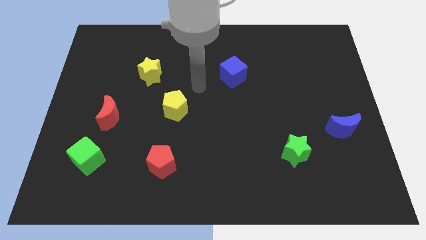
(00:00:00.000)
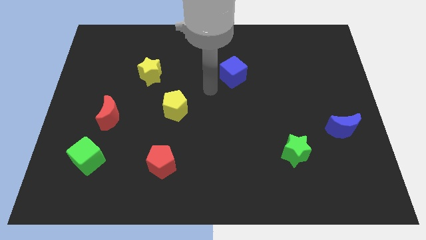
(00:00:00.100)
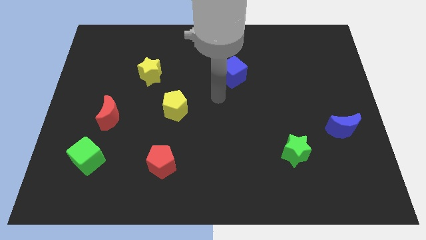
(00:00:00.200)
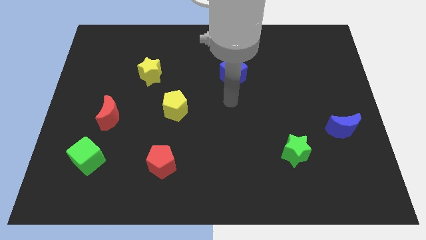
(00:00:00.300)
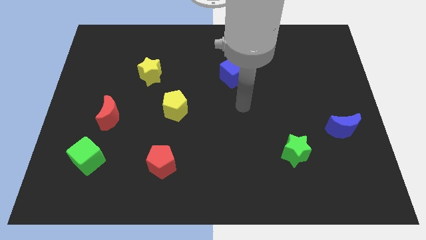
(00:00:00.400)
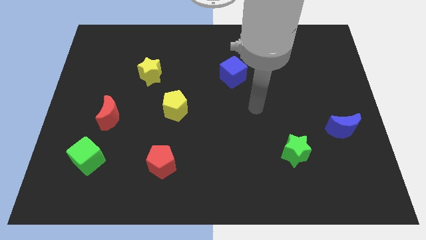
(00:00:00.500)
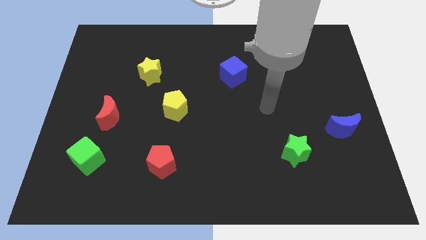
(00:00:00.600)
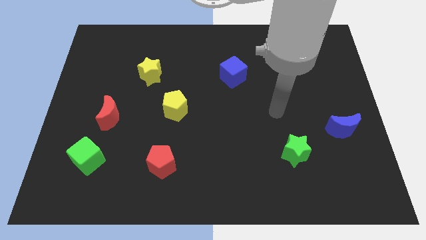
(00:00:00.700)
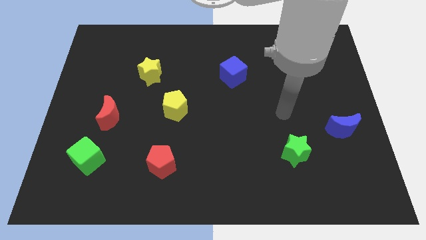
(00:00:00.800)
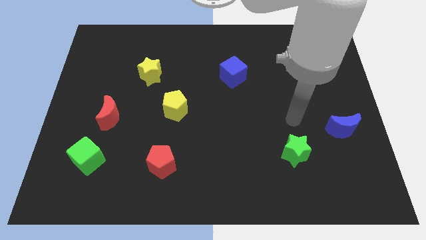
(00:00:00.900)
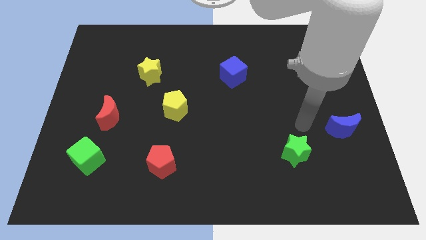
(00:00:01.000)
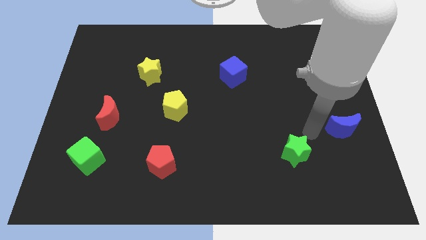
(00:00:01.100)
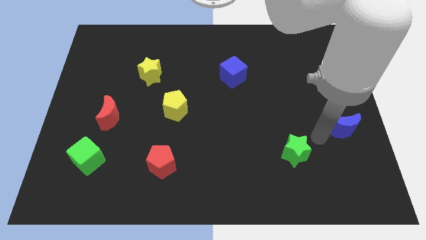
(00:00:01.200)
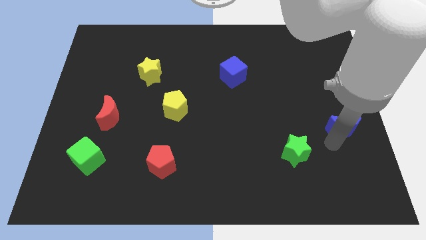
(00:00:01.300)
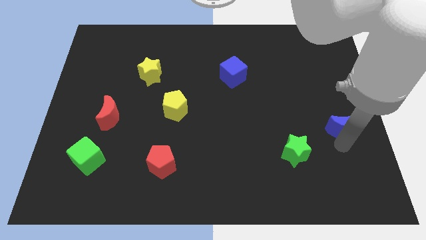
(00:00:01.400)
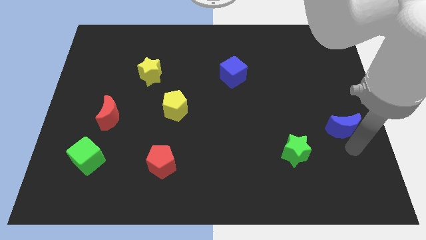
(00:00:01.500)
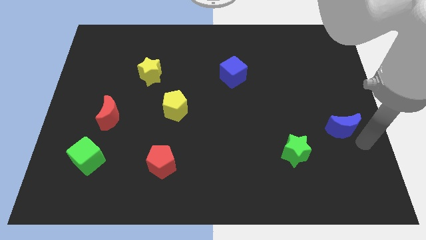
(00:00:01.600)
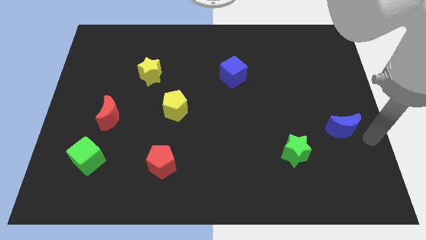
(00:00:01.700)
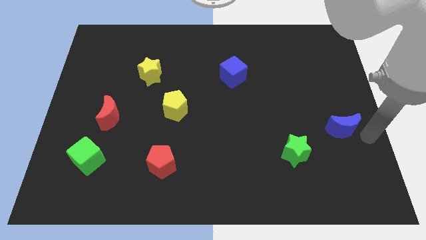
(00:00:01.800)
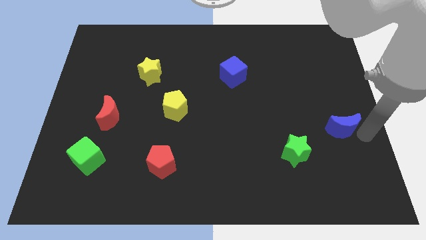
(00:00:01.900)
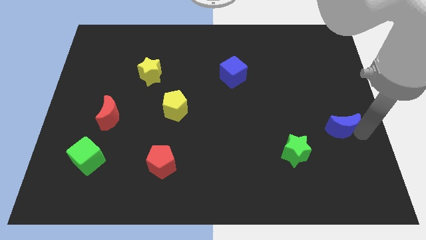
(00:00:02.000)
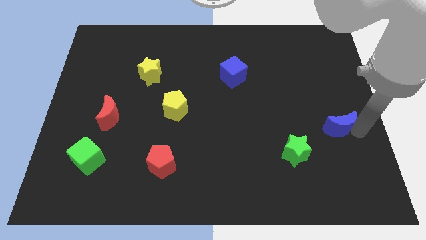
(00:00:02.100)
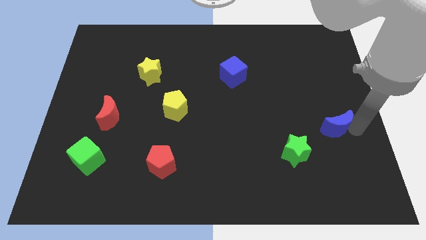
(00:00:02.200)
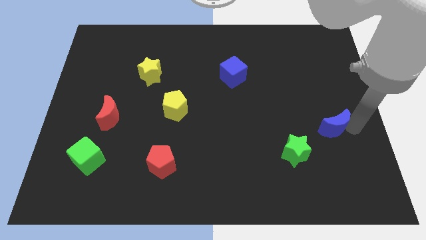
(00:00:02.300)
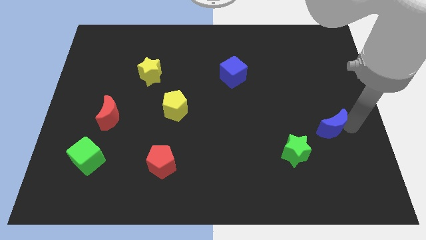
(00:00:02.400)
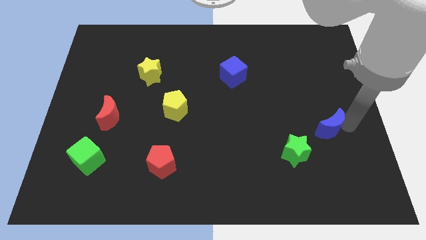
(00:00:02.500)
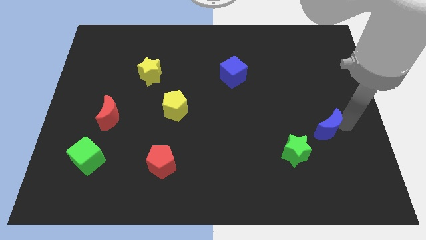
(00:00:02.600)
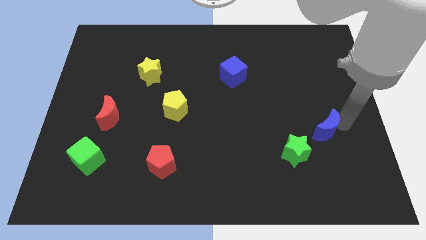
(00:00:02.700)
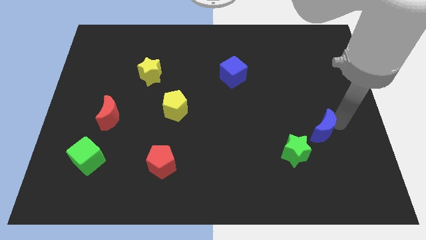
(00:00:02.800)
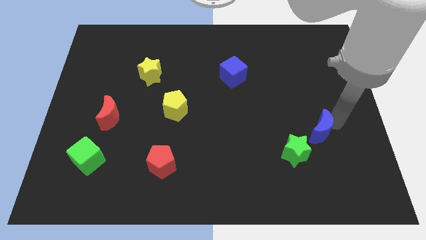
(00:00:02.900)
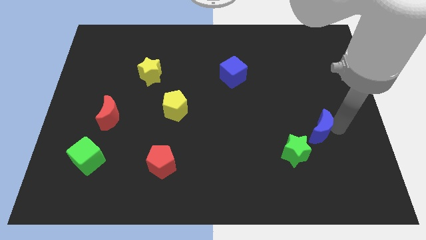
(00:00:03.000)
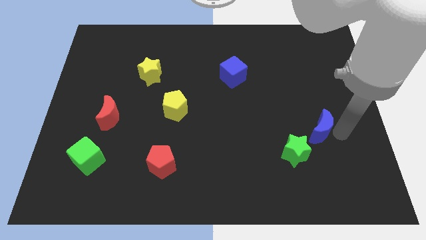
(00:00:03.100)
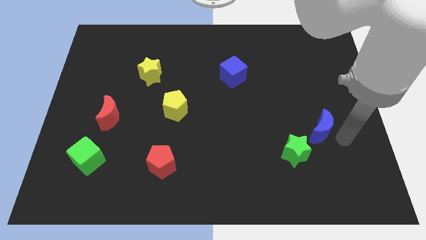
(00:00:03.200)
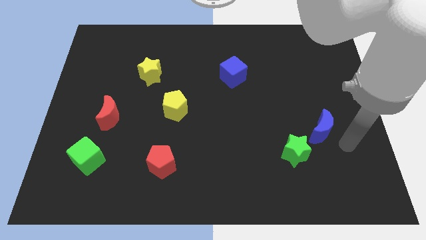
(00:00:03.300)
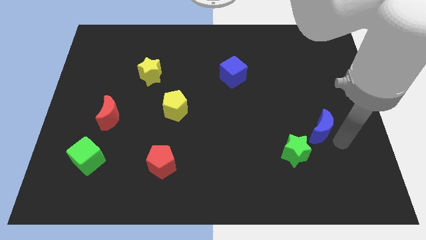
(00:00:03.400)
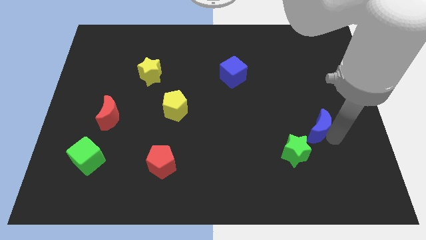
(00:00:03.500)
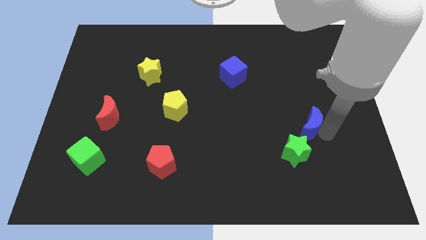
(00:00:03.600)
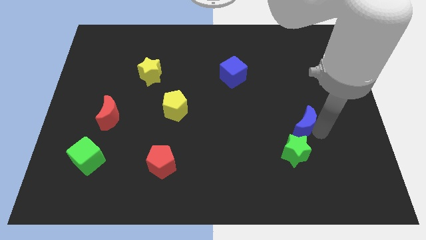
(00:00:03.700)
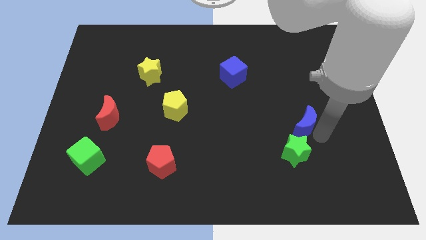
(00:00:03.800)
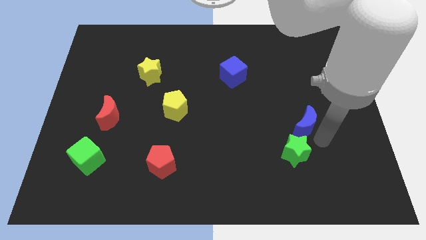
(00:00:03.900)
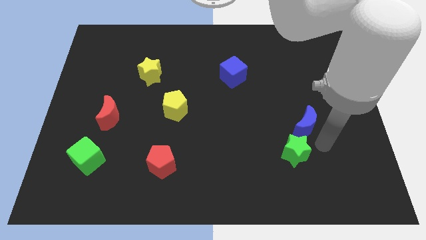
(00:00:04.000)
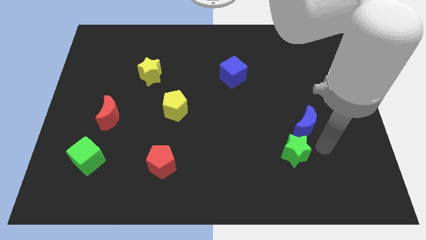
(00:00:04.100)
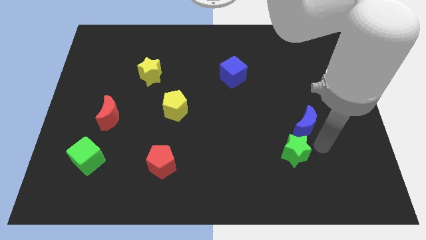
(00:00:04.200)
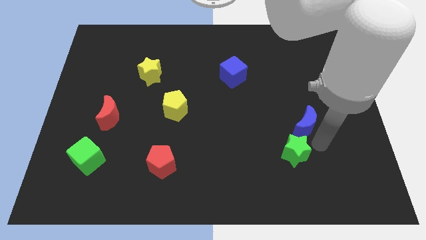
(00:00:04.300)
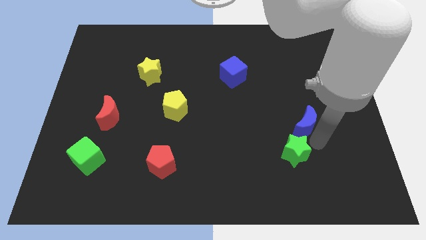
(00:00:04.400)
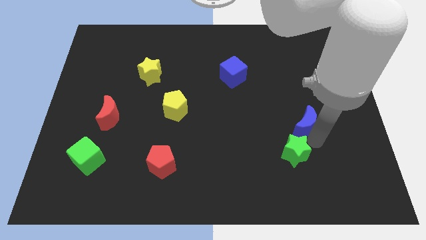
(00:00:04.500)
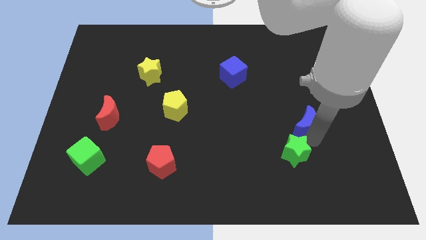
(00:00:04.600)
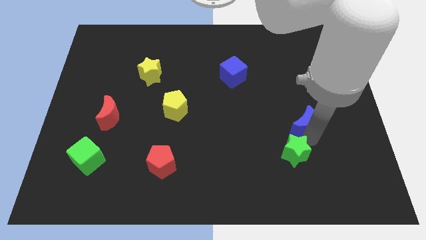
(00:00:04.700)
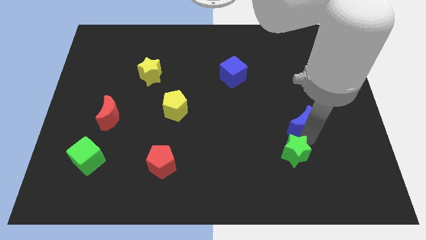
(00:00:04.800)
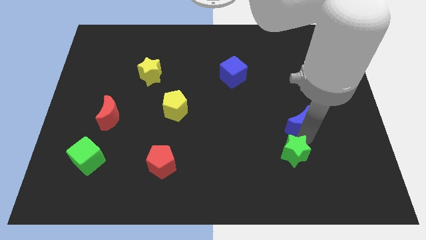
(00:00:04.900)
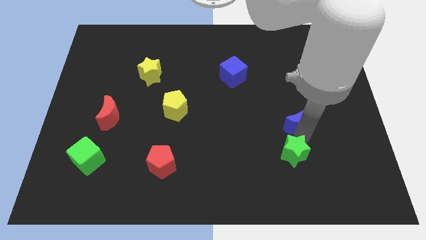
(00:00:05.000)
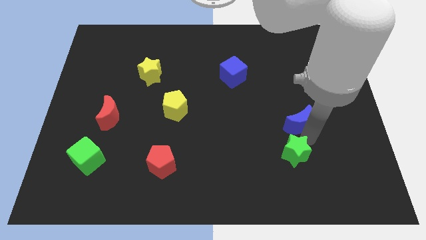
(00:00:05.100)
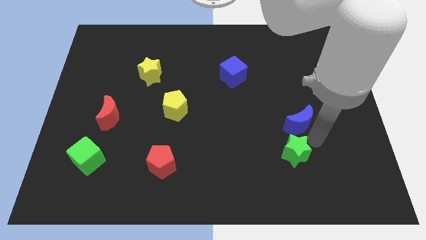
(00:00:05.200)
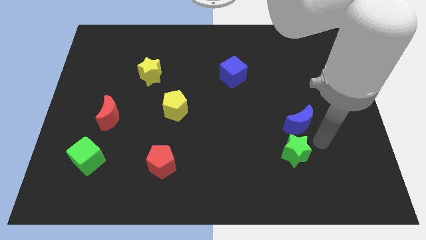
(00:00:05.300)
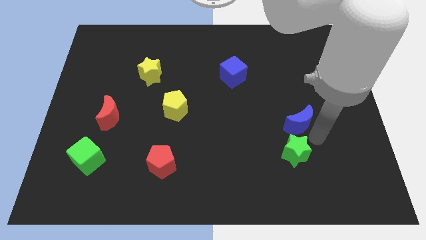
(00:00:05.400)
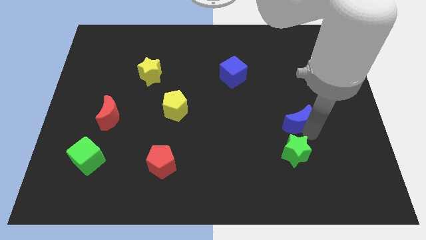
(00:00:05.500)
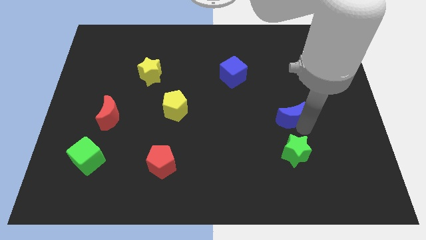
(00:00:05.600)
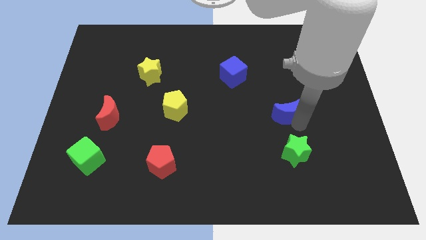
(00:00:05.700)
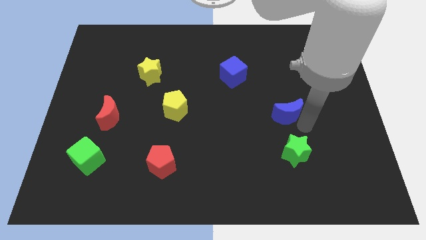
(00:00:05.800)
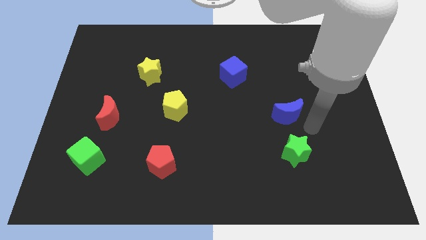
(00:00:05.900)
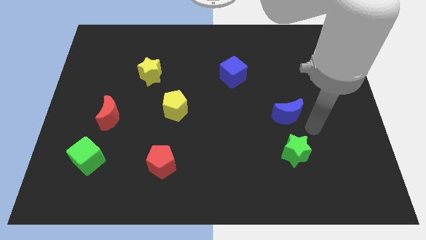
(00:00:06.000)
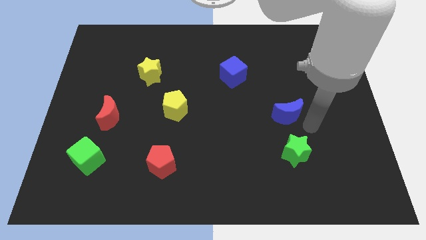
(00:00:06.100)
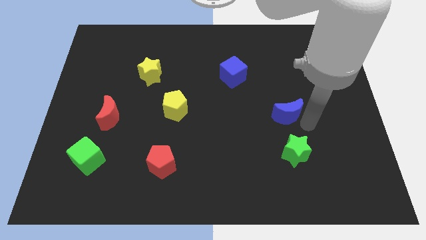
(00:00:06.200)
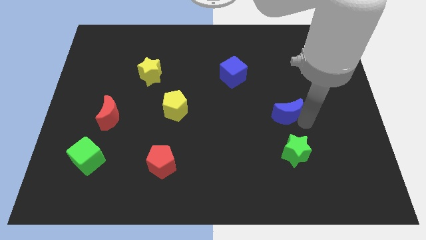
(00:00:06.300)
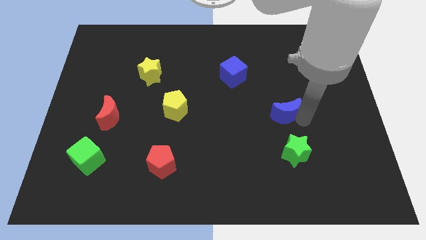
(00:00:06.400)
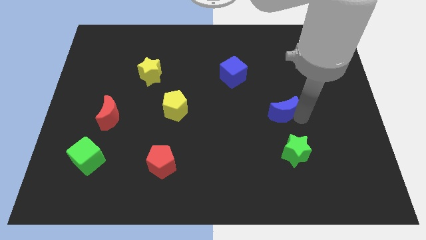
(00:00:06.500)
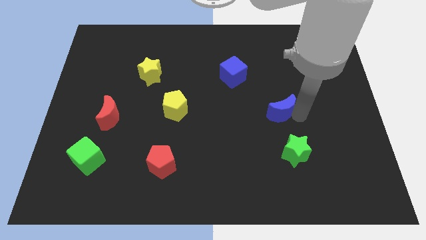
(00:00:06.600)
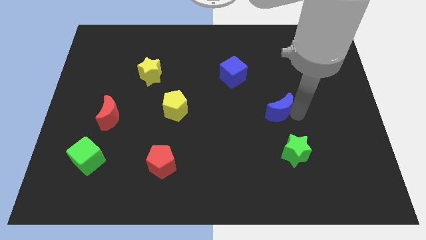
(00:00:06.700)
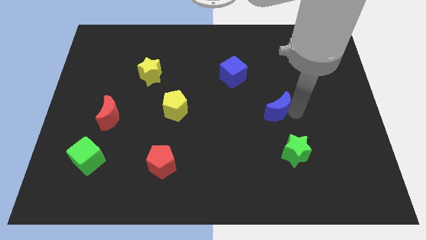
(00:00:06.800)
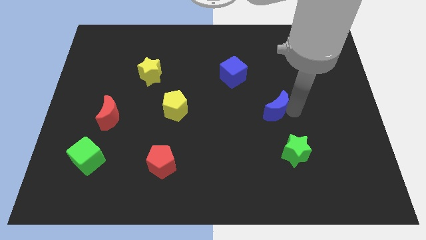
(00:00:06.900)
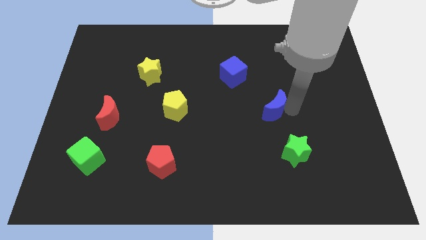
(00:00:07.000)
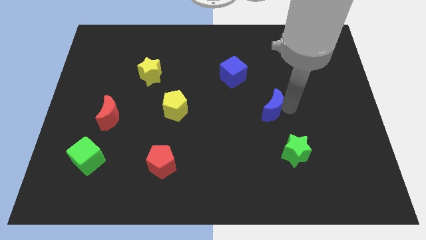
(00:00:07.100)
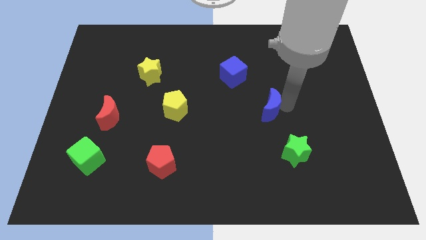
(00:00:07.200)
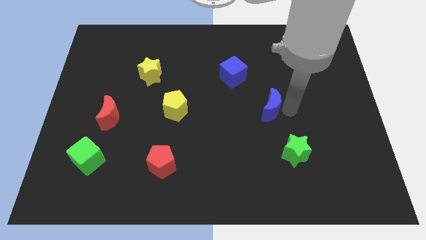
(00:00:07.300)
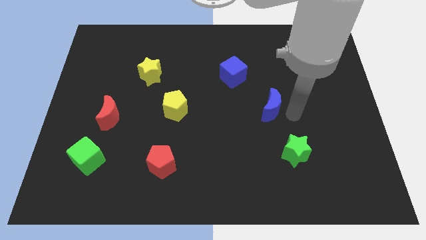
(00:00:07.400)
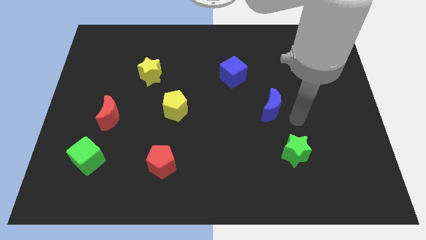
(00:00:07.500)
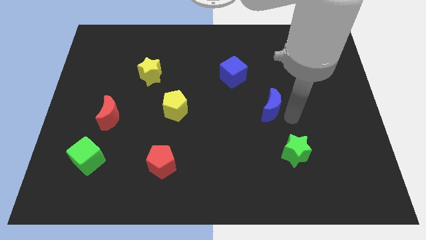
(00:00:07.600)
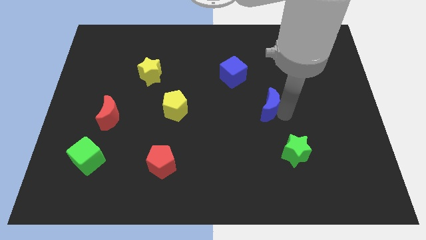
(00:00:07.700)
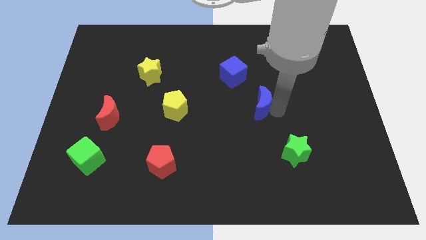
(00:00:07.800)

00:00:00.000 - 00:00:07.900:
push the blue moon to the middle
